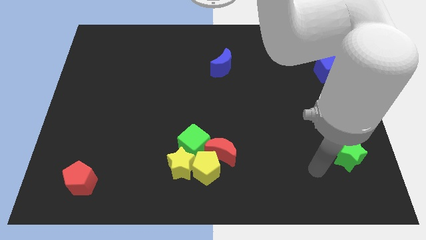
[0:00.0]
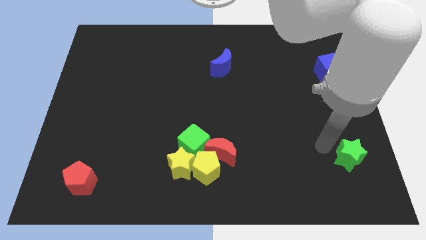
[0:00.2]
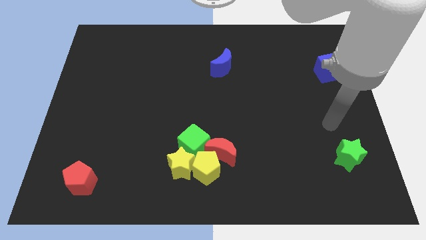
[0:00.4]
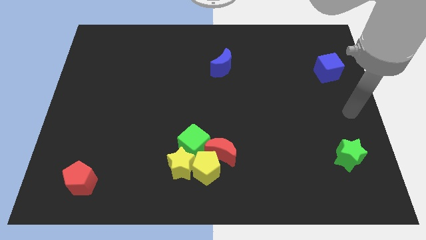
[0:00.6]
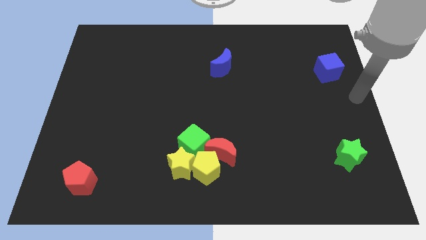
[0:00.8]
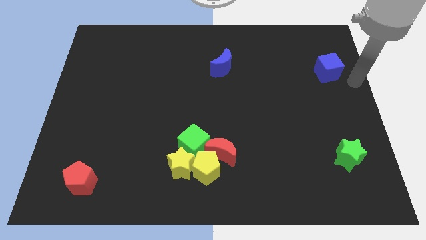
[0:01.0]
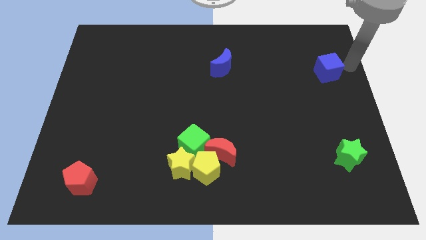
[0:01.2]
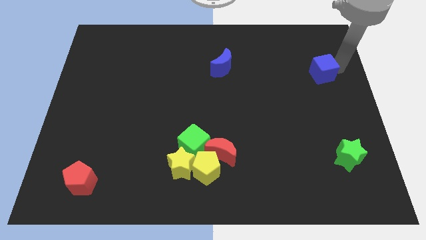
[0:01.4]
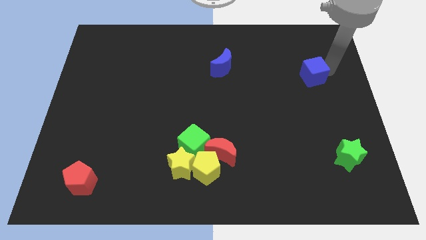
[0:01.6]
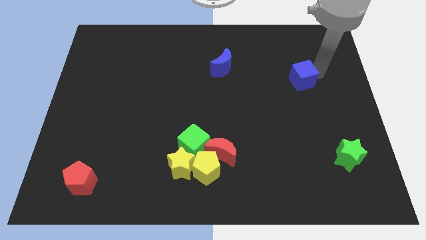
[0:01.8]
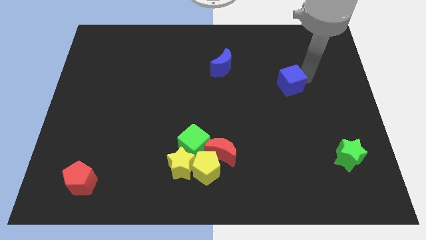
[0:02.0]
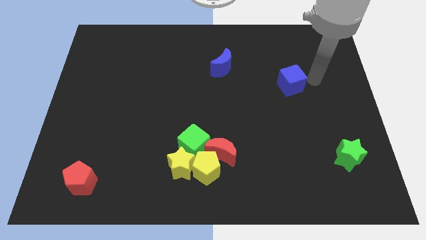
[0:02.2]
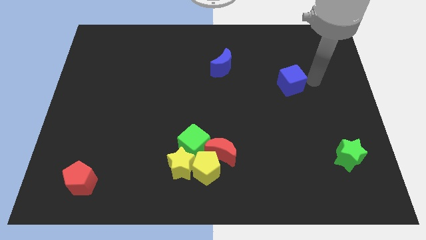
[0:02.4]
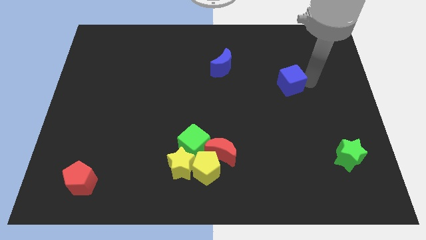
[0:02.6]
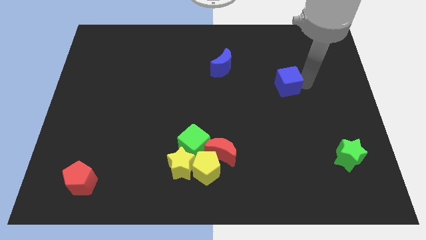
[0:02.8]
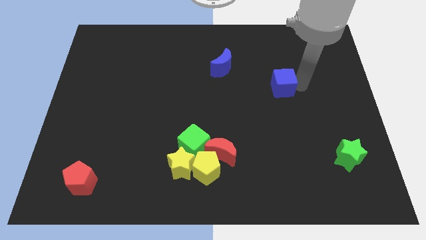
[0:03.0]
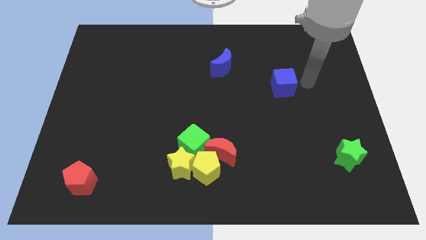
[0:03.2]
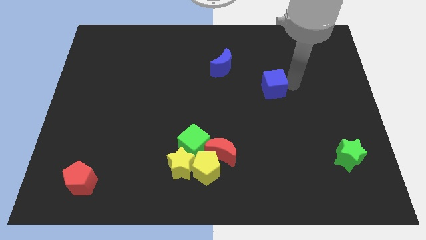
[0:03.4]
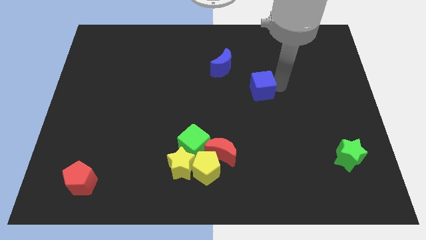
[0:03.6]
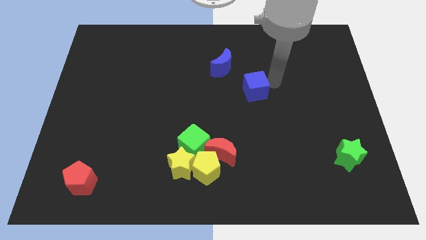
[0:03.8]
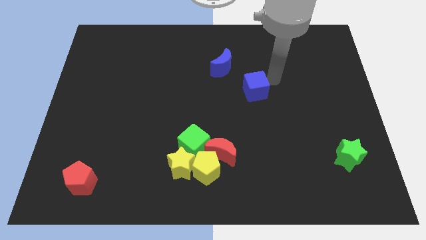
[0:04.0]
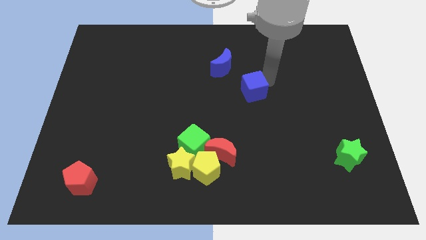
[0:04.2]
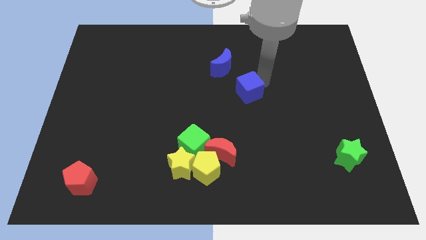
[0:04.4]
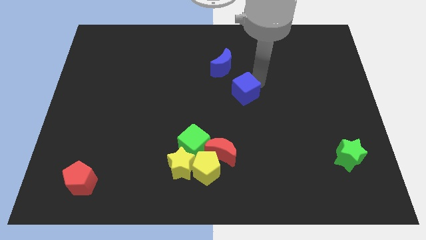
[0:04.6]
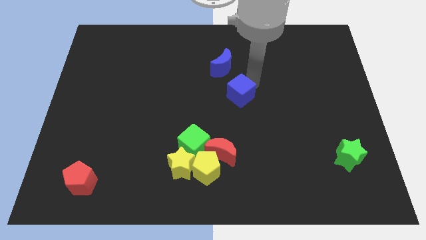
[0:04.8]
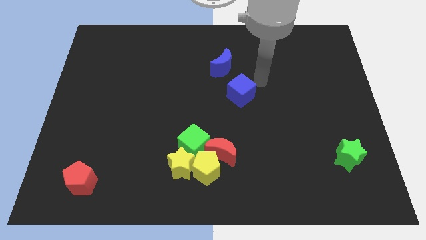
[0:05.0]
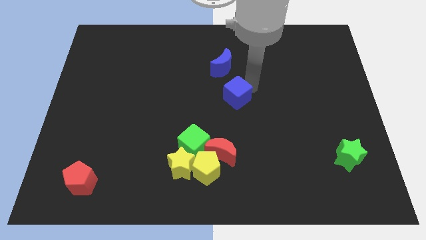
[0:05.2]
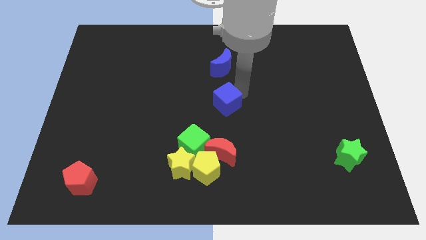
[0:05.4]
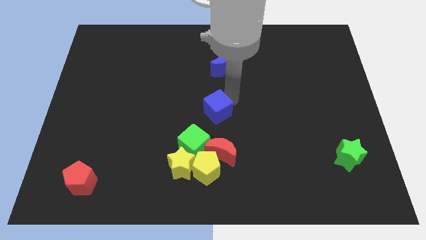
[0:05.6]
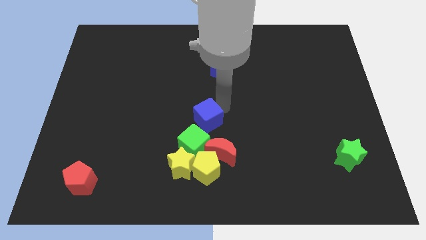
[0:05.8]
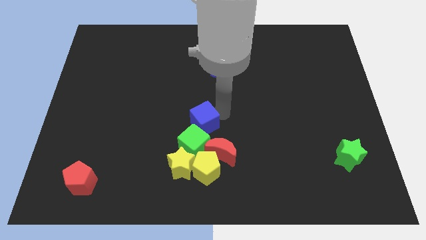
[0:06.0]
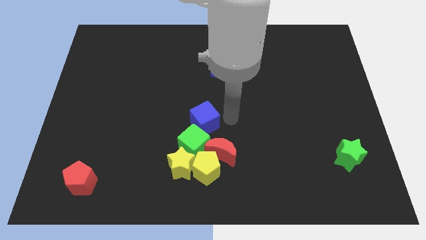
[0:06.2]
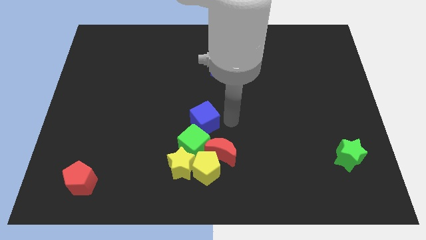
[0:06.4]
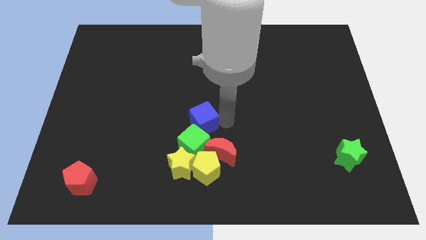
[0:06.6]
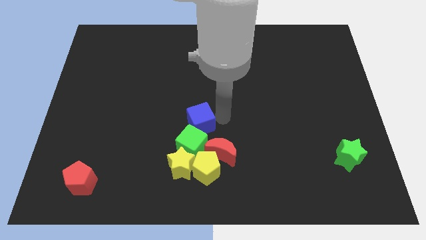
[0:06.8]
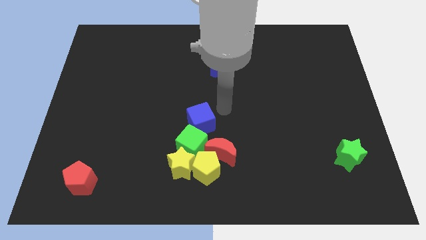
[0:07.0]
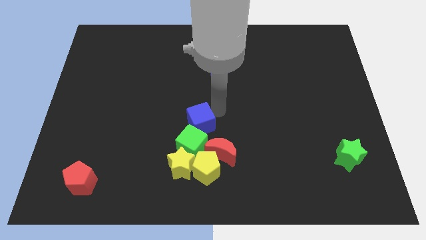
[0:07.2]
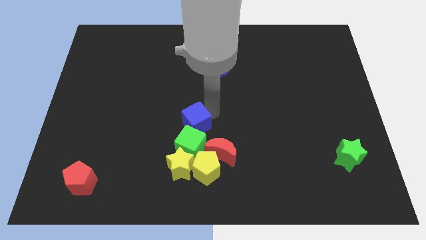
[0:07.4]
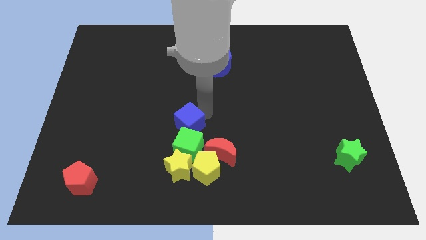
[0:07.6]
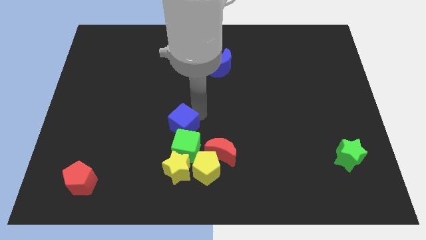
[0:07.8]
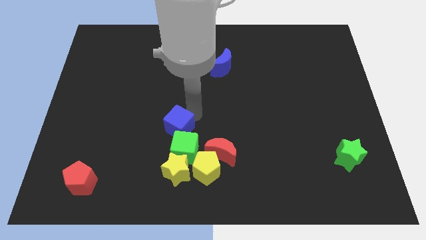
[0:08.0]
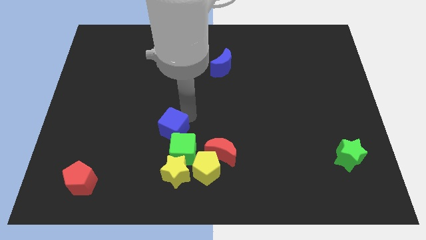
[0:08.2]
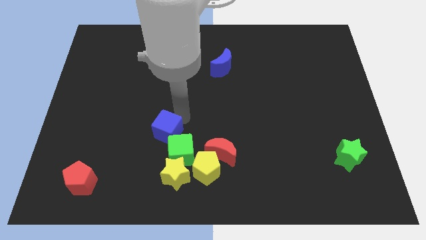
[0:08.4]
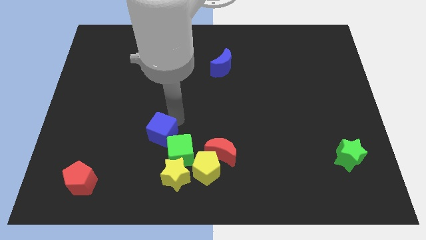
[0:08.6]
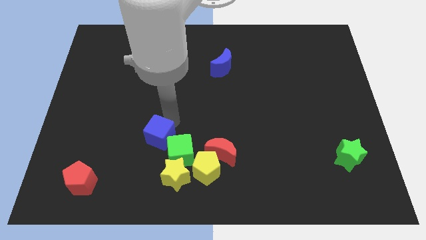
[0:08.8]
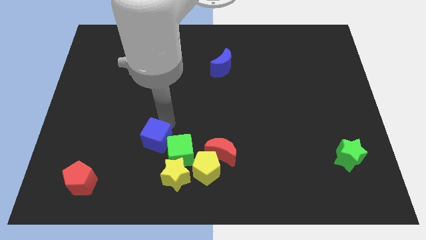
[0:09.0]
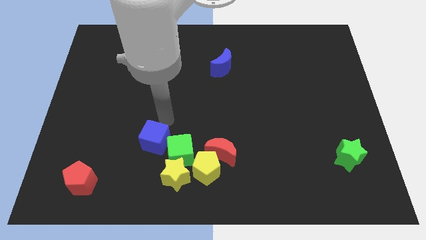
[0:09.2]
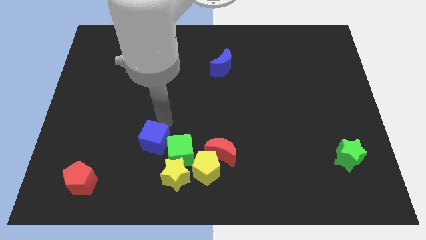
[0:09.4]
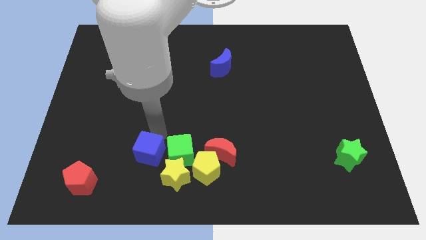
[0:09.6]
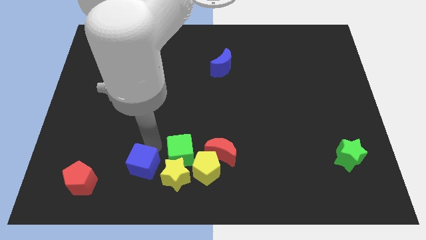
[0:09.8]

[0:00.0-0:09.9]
push the blue cube to the right side of the red pentagon

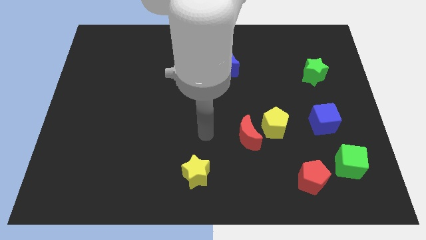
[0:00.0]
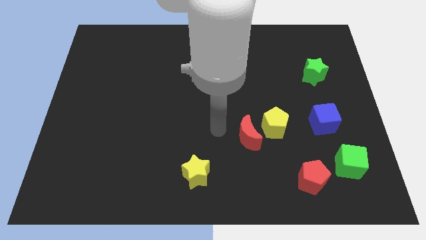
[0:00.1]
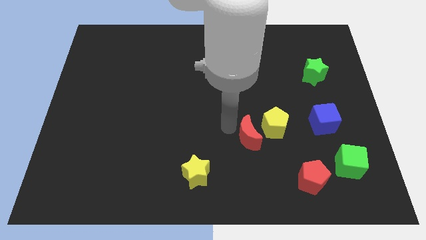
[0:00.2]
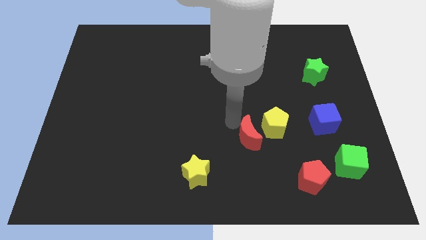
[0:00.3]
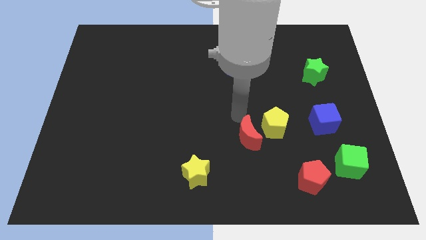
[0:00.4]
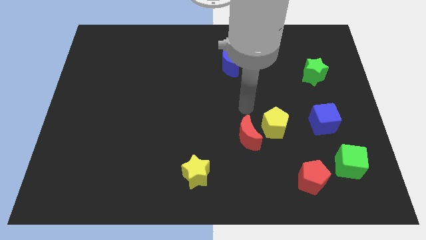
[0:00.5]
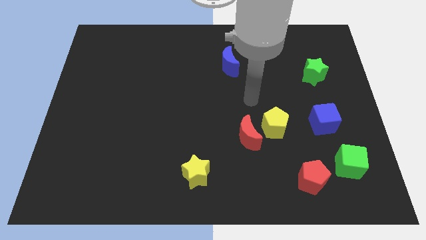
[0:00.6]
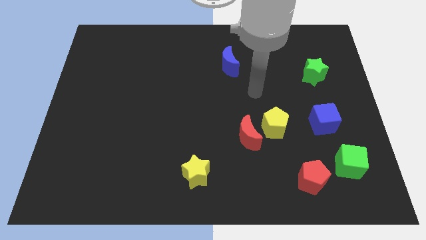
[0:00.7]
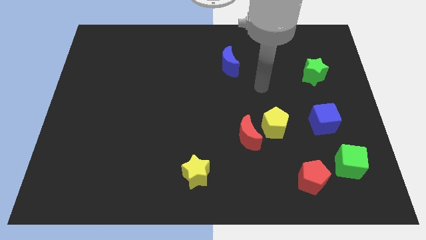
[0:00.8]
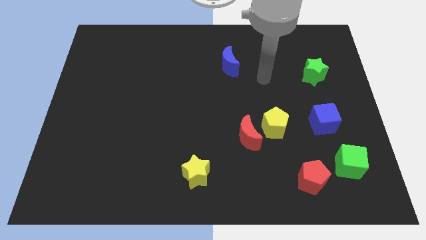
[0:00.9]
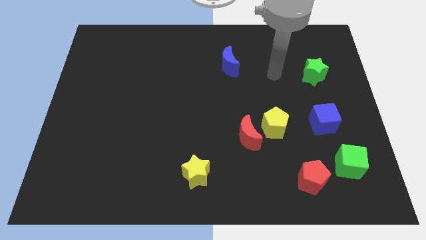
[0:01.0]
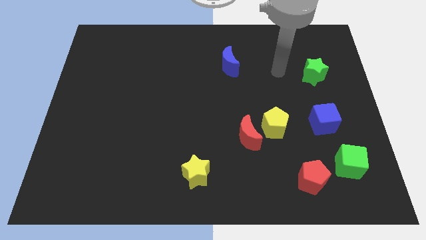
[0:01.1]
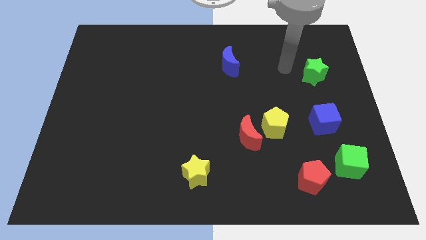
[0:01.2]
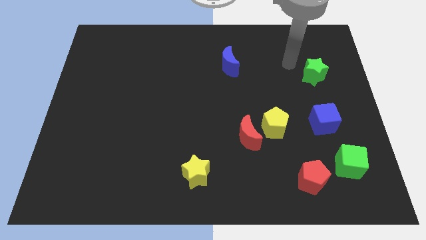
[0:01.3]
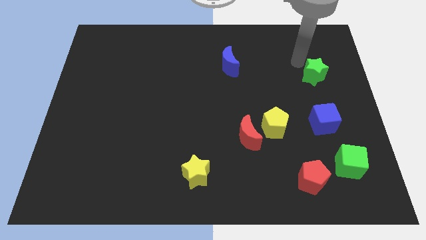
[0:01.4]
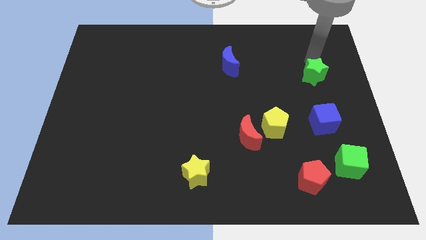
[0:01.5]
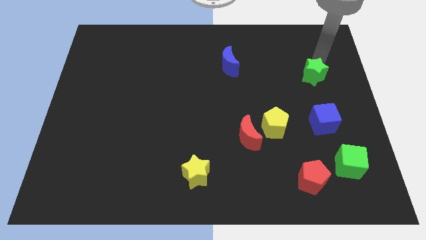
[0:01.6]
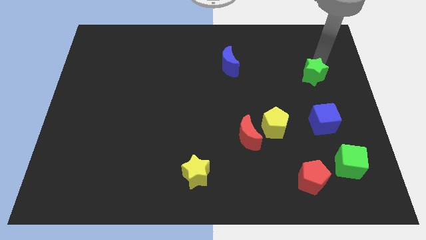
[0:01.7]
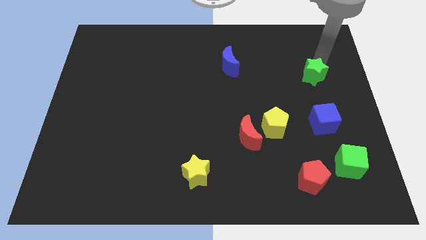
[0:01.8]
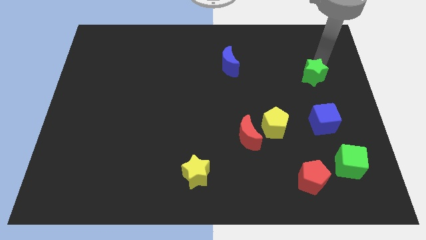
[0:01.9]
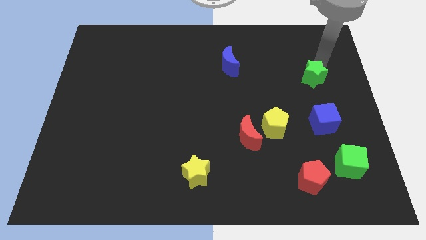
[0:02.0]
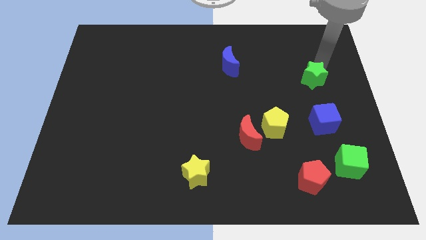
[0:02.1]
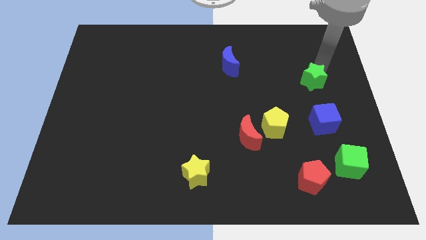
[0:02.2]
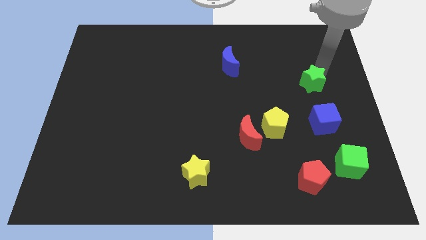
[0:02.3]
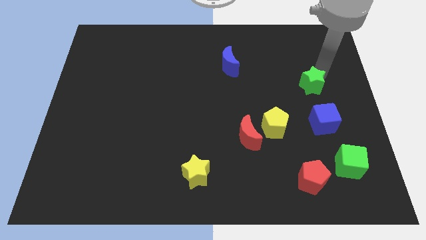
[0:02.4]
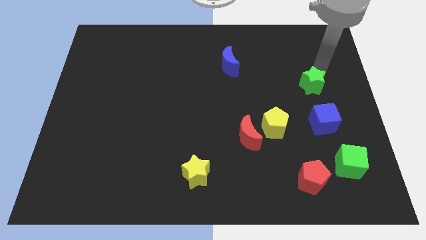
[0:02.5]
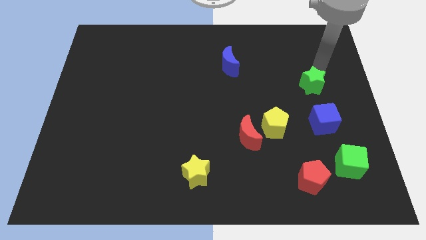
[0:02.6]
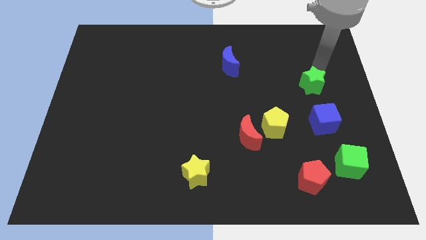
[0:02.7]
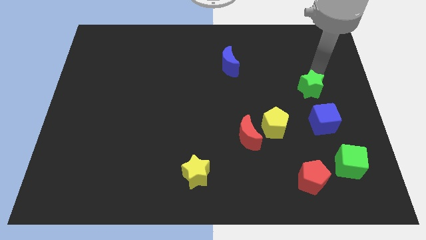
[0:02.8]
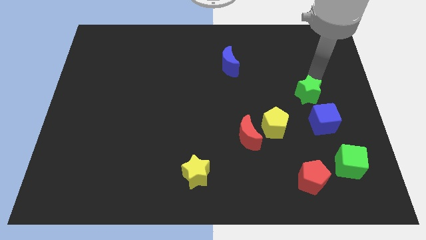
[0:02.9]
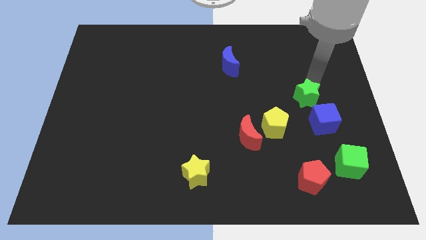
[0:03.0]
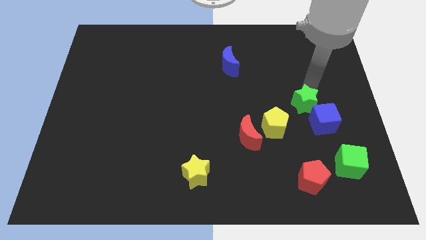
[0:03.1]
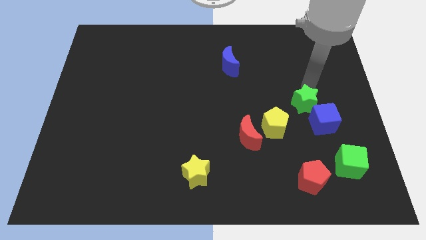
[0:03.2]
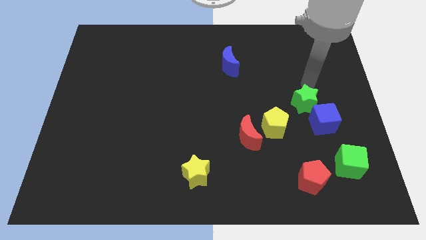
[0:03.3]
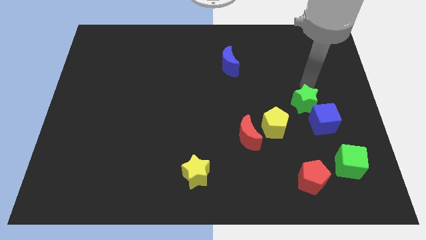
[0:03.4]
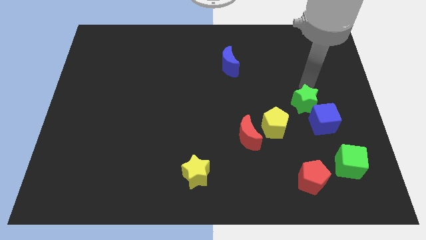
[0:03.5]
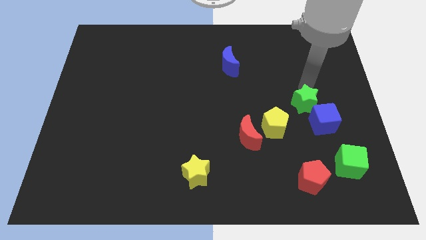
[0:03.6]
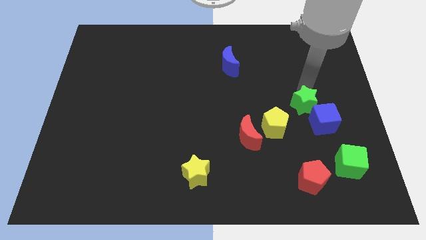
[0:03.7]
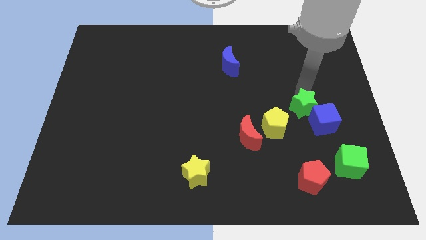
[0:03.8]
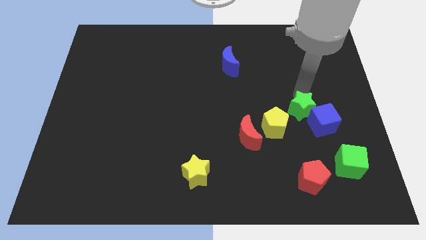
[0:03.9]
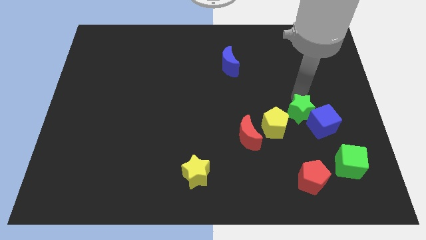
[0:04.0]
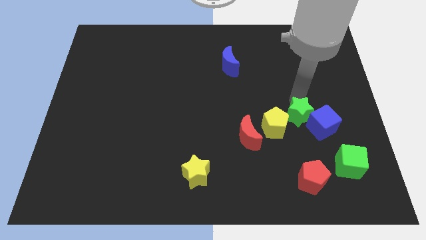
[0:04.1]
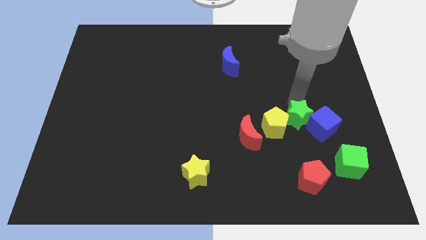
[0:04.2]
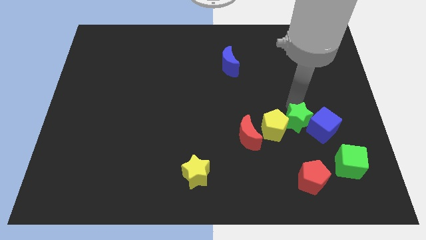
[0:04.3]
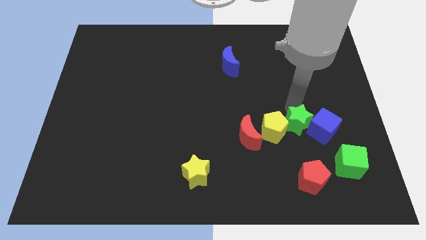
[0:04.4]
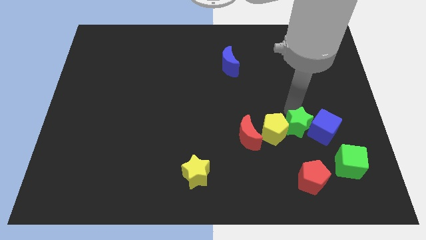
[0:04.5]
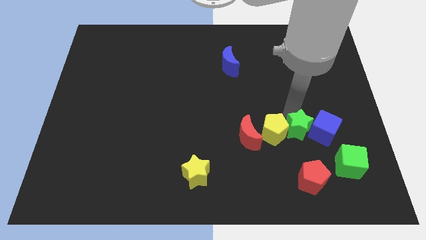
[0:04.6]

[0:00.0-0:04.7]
slide the green star diagonally up and to the left of the green cube
